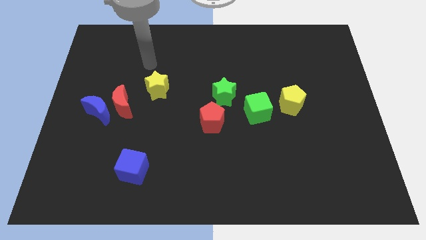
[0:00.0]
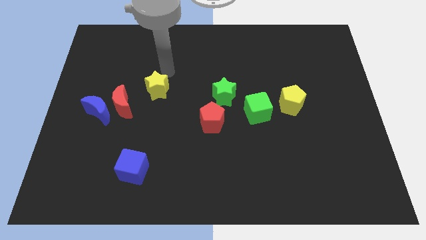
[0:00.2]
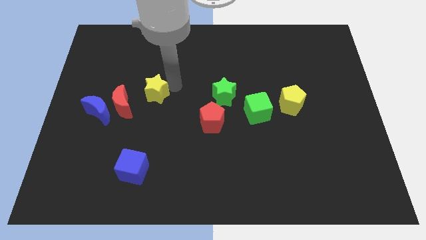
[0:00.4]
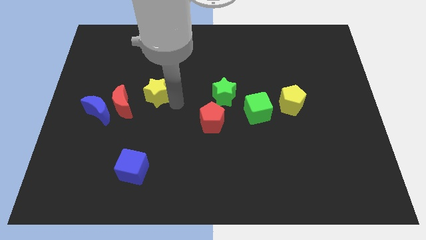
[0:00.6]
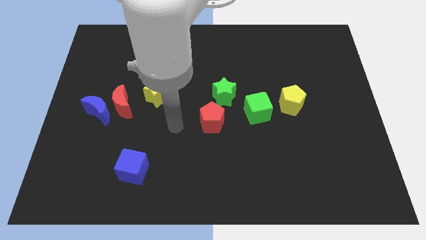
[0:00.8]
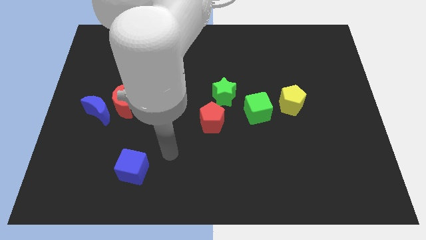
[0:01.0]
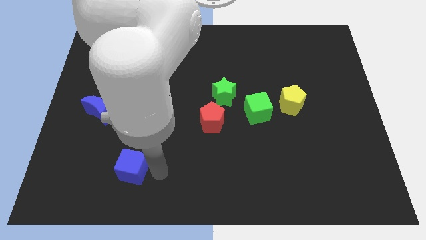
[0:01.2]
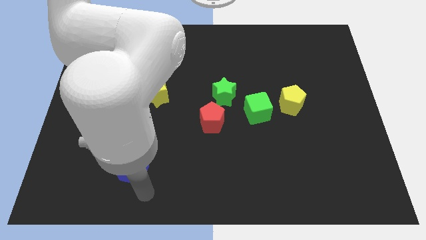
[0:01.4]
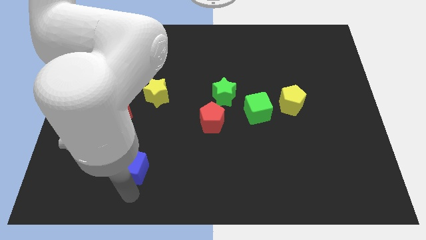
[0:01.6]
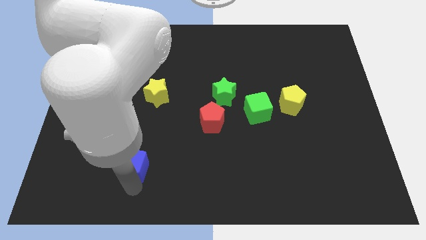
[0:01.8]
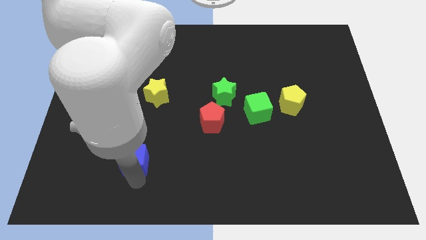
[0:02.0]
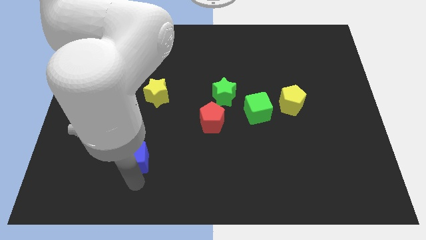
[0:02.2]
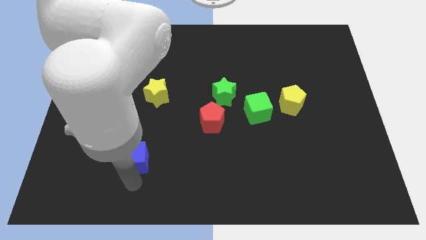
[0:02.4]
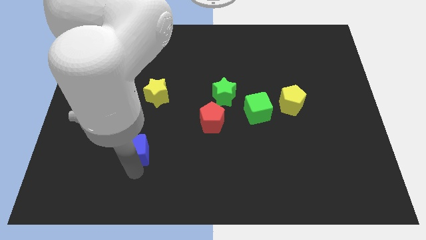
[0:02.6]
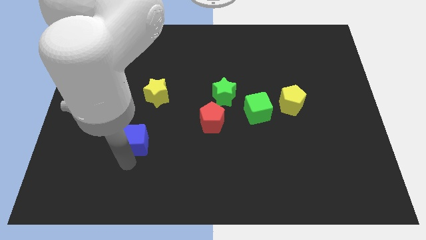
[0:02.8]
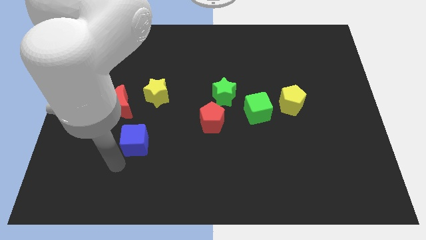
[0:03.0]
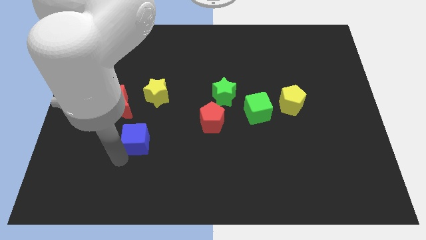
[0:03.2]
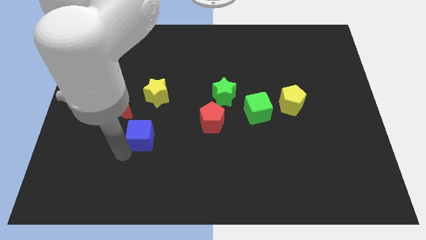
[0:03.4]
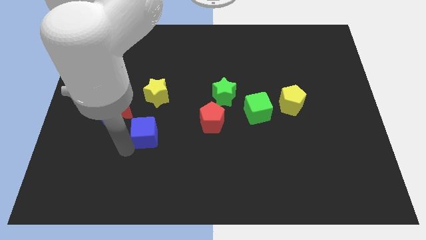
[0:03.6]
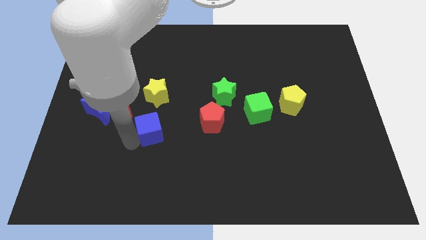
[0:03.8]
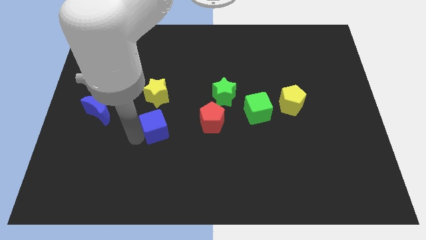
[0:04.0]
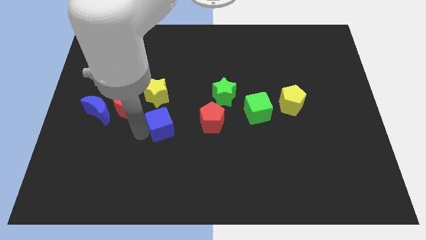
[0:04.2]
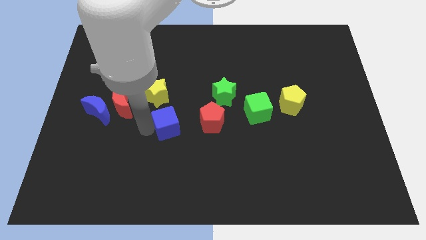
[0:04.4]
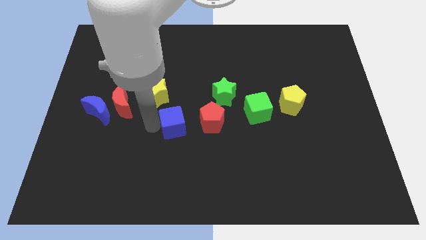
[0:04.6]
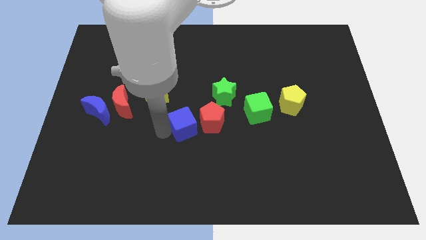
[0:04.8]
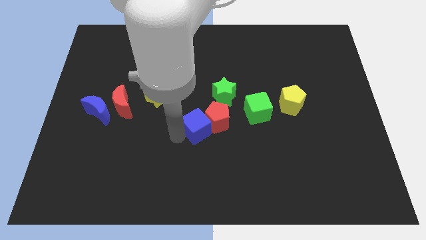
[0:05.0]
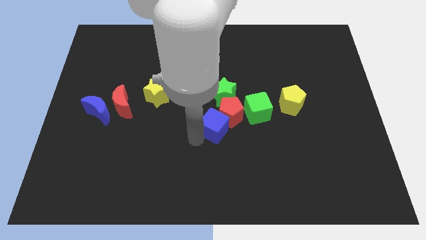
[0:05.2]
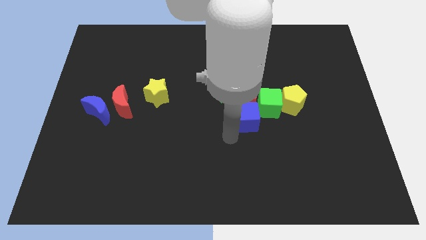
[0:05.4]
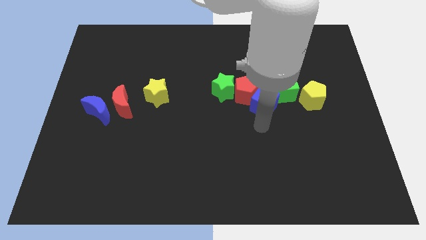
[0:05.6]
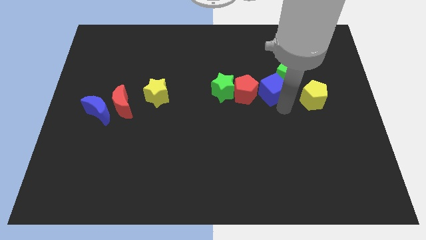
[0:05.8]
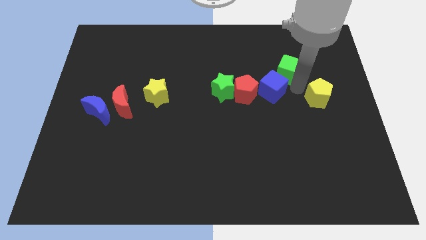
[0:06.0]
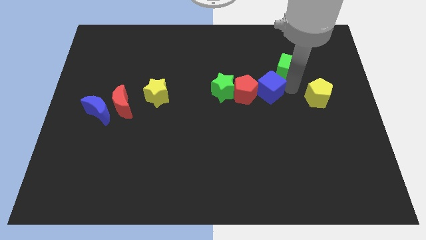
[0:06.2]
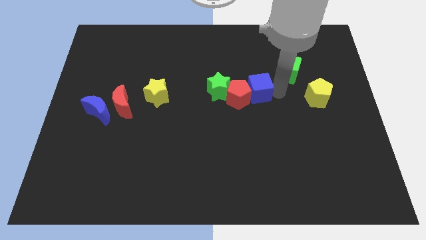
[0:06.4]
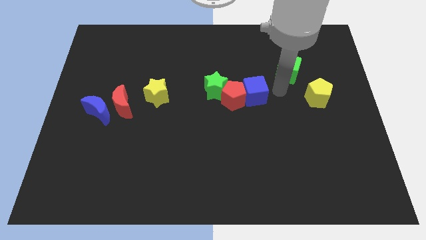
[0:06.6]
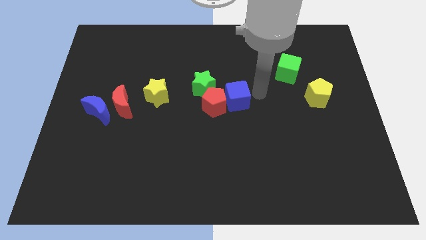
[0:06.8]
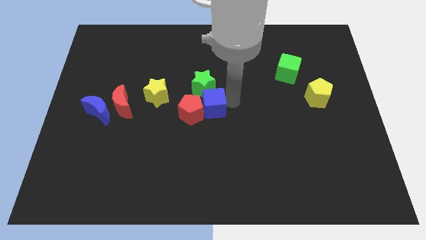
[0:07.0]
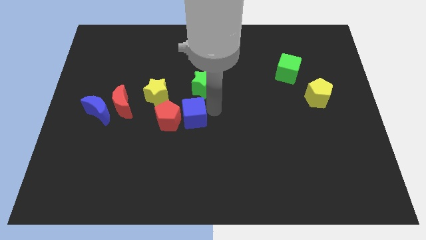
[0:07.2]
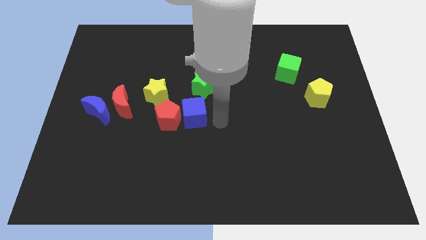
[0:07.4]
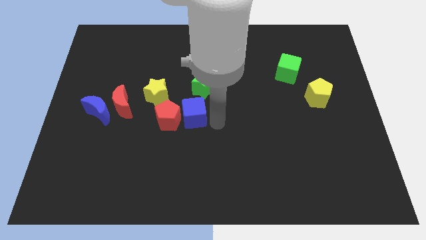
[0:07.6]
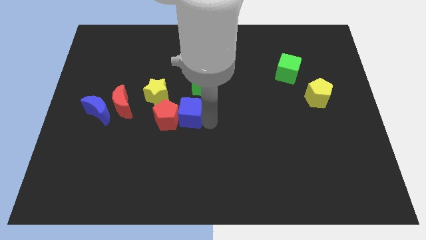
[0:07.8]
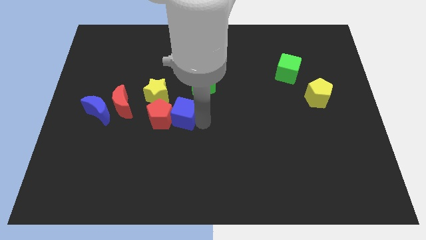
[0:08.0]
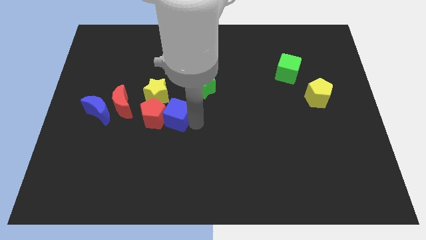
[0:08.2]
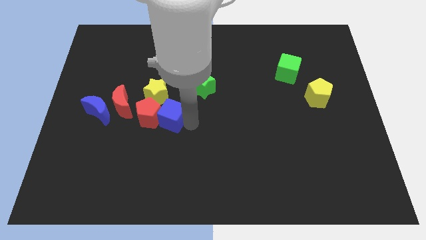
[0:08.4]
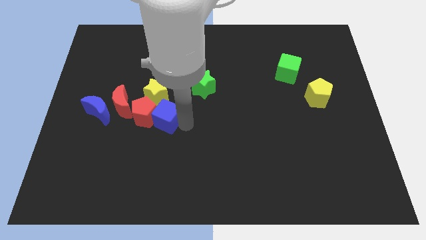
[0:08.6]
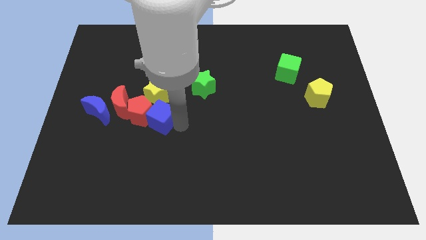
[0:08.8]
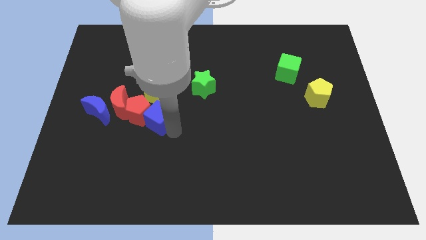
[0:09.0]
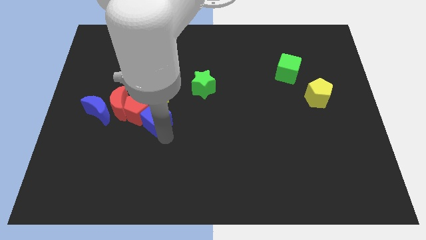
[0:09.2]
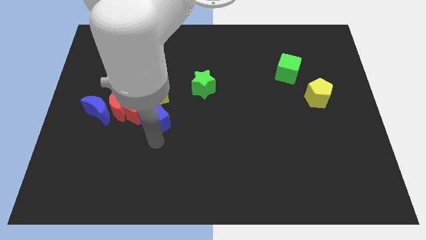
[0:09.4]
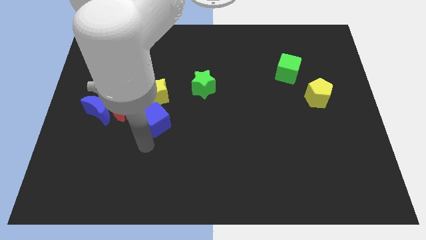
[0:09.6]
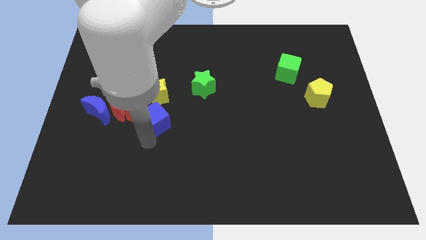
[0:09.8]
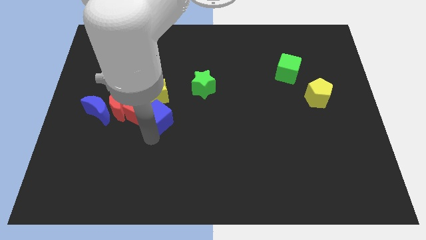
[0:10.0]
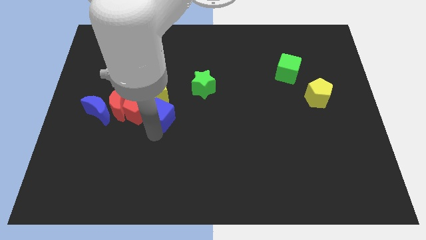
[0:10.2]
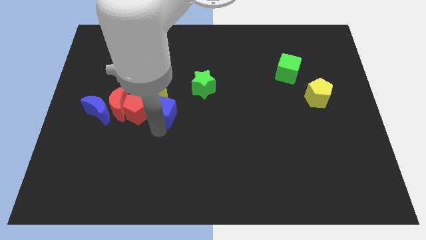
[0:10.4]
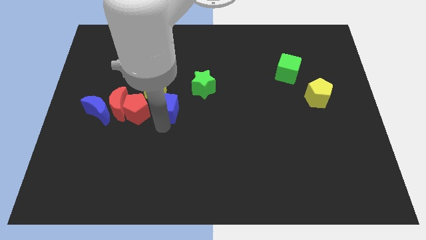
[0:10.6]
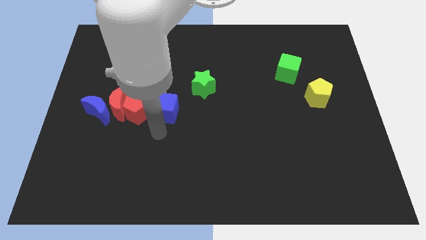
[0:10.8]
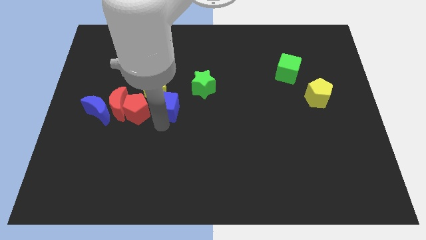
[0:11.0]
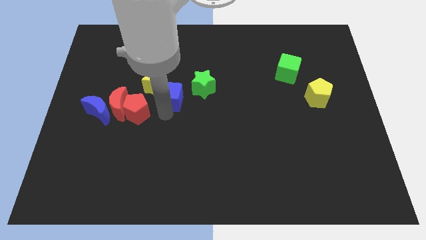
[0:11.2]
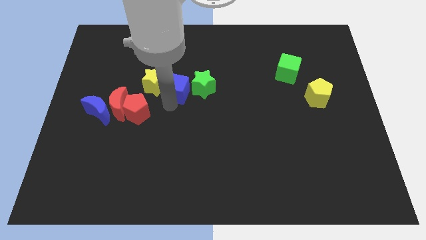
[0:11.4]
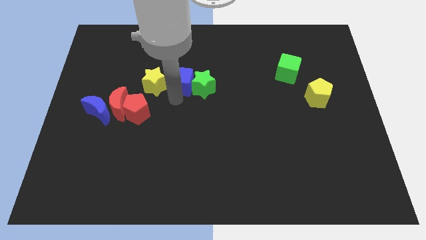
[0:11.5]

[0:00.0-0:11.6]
move the blue cube upwards

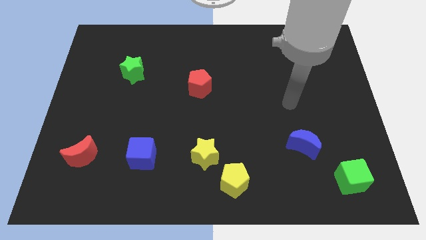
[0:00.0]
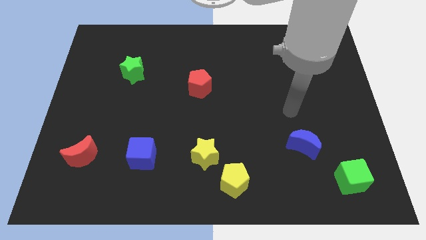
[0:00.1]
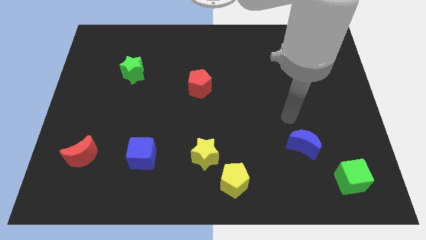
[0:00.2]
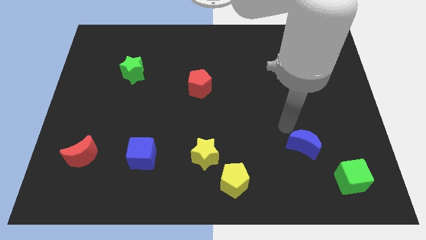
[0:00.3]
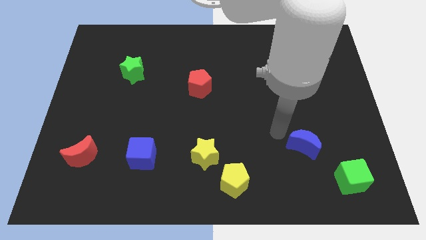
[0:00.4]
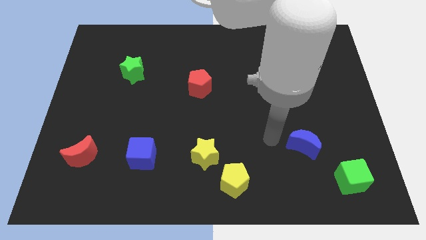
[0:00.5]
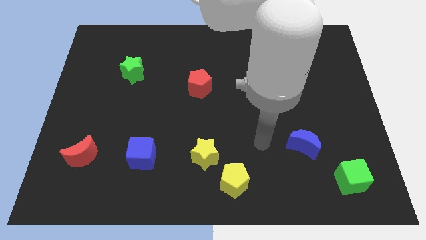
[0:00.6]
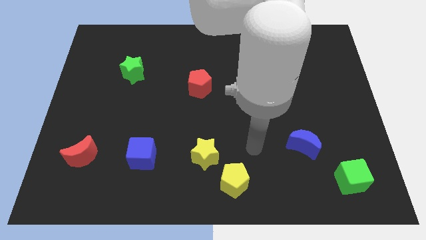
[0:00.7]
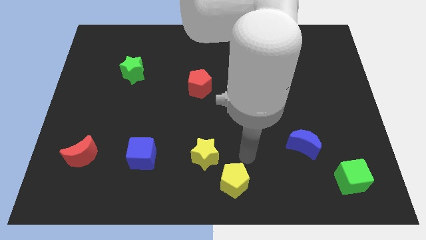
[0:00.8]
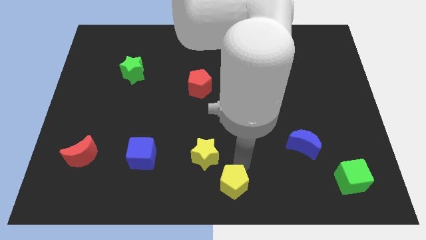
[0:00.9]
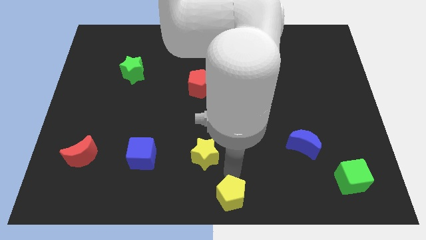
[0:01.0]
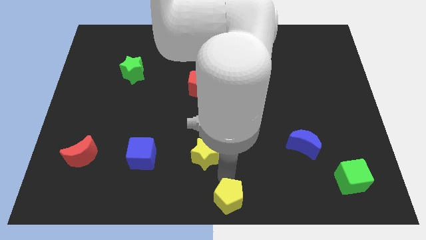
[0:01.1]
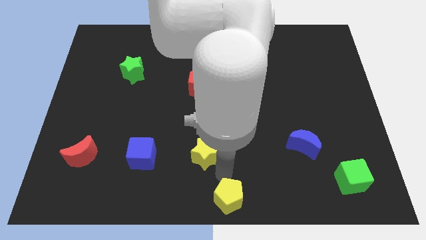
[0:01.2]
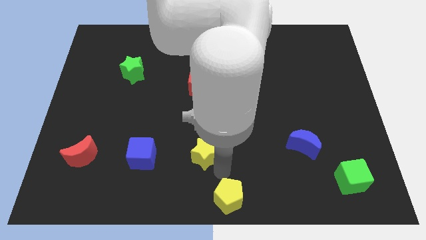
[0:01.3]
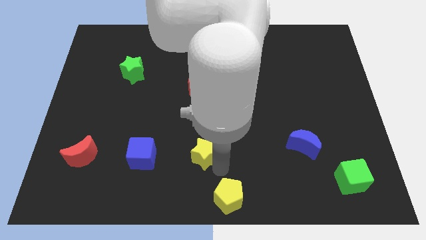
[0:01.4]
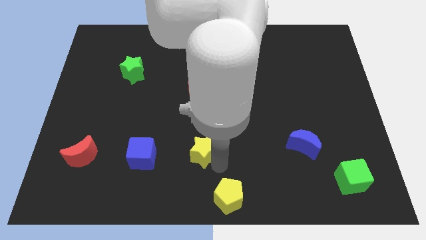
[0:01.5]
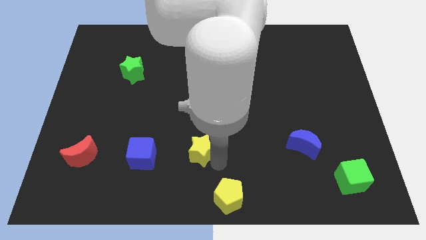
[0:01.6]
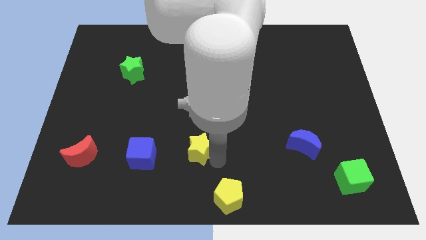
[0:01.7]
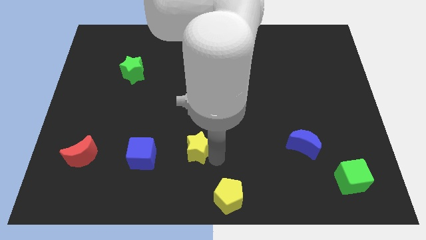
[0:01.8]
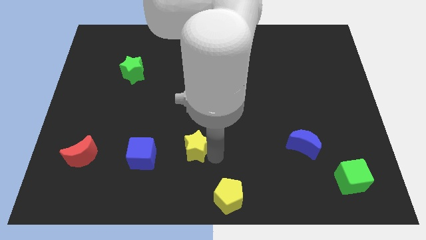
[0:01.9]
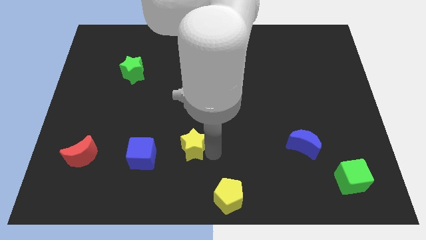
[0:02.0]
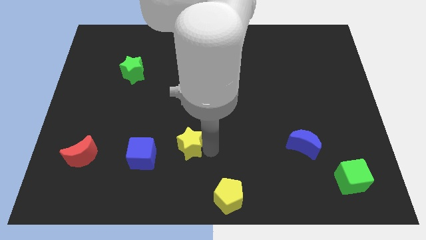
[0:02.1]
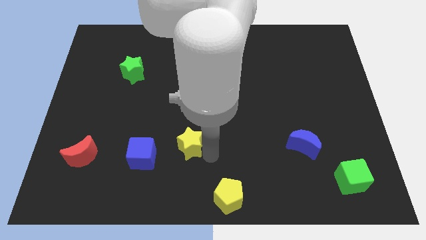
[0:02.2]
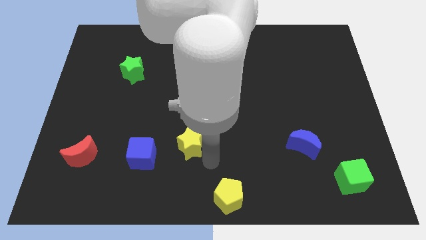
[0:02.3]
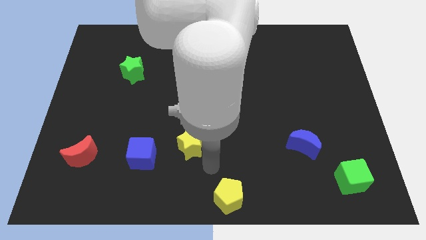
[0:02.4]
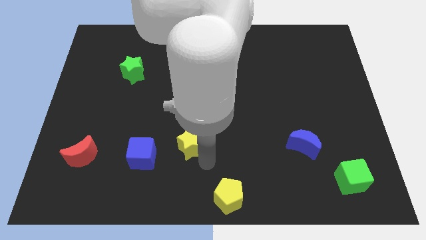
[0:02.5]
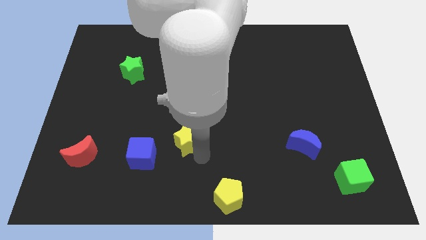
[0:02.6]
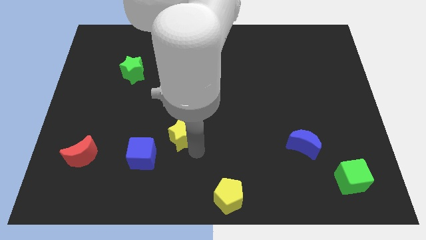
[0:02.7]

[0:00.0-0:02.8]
slide the yellow star slightly up and then left
